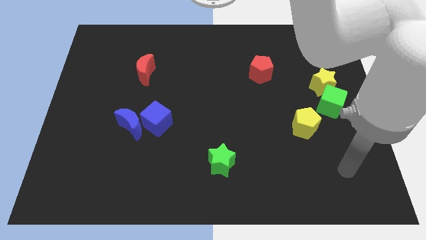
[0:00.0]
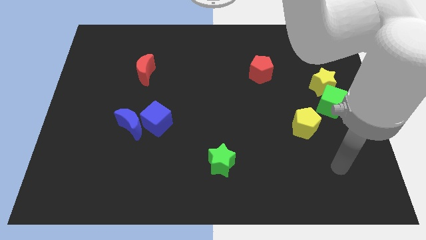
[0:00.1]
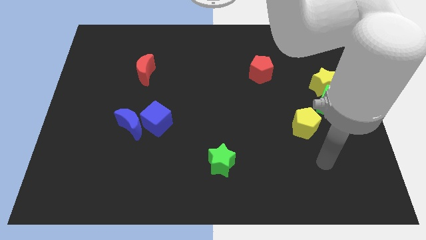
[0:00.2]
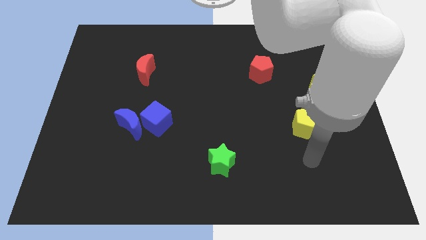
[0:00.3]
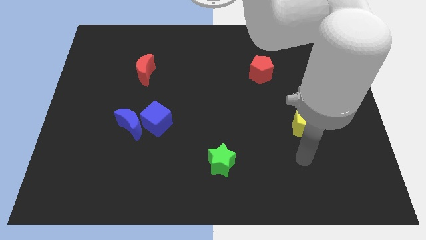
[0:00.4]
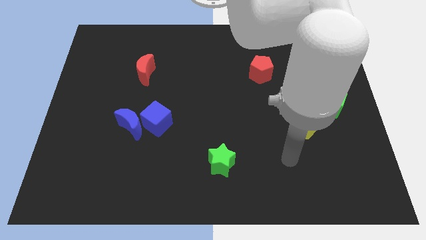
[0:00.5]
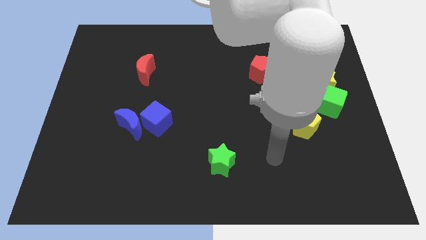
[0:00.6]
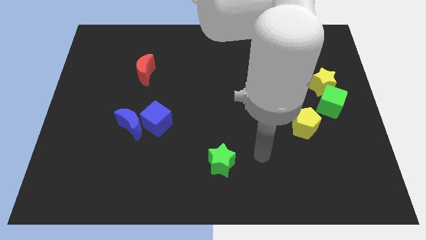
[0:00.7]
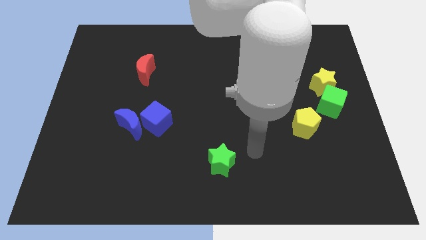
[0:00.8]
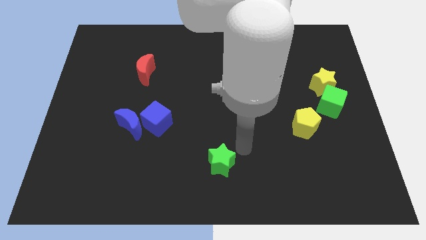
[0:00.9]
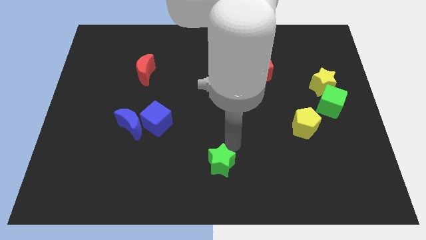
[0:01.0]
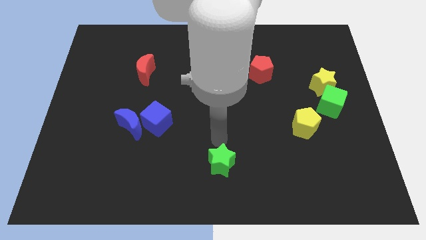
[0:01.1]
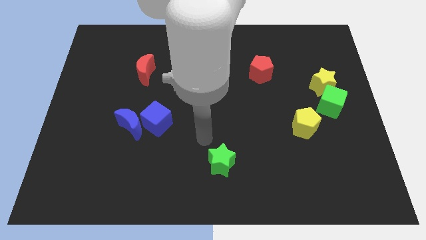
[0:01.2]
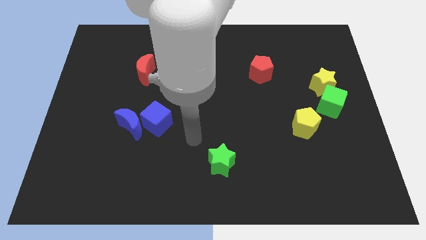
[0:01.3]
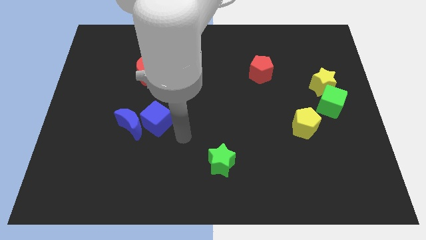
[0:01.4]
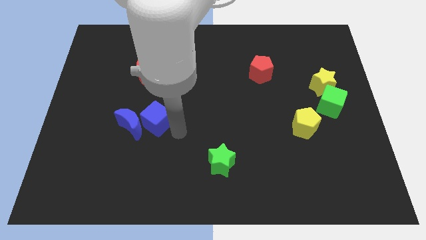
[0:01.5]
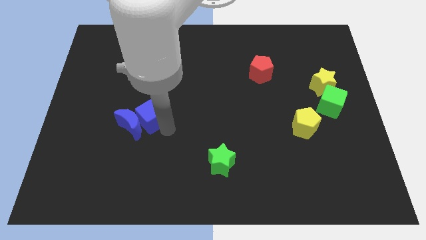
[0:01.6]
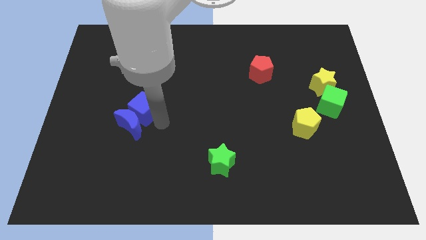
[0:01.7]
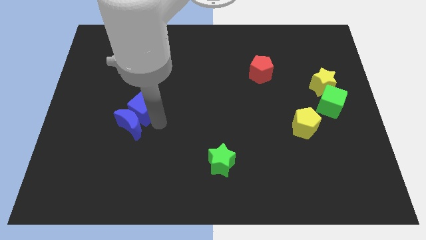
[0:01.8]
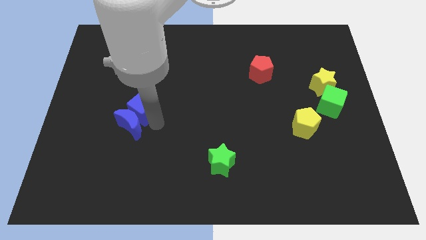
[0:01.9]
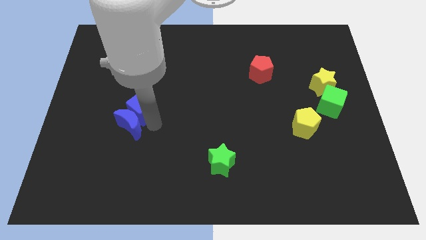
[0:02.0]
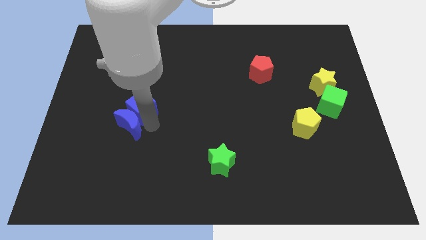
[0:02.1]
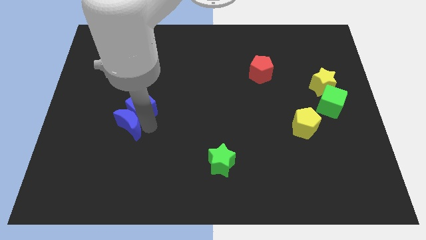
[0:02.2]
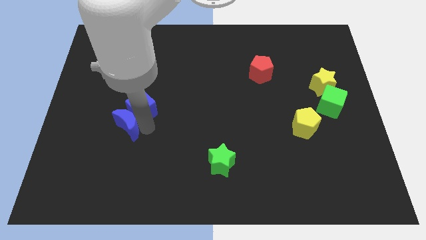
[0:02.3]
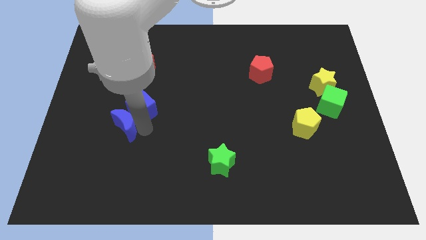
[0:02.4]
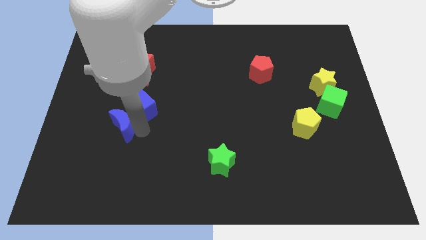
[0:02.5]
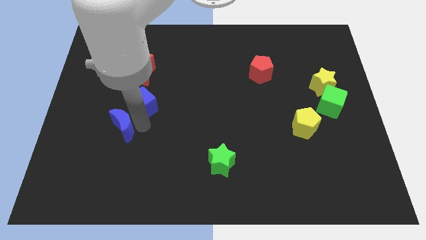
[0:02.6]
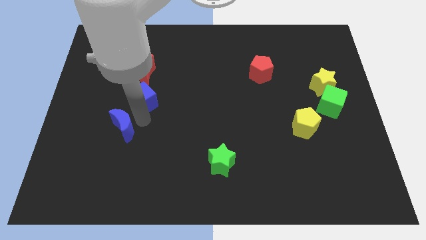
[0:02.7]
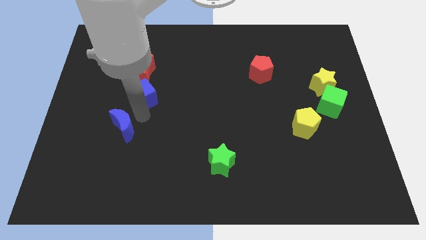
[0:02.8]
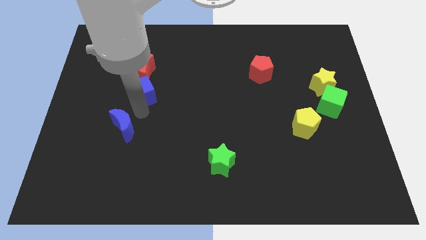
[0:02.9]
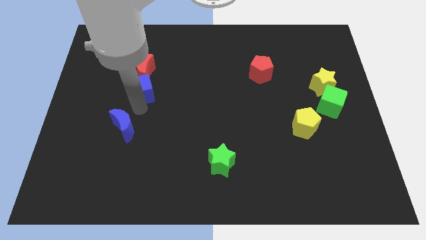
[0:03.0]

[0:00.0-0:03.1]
separate the blue moon from the blue cube

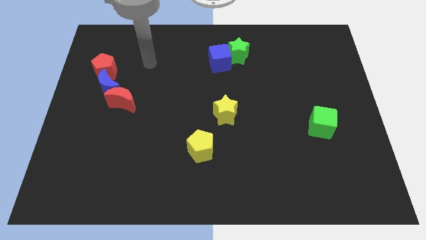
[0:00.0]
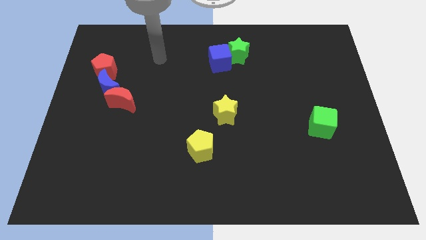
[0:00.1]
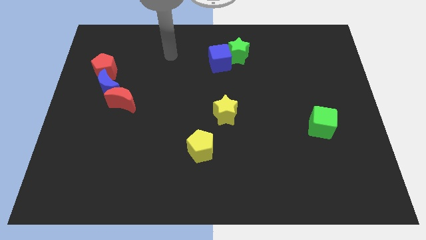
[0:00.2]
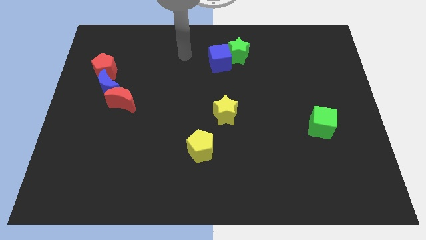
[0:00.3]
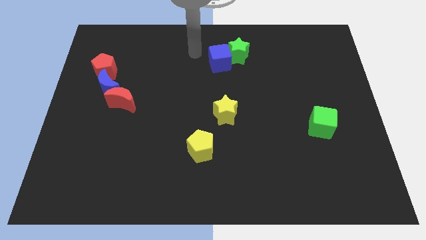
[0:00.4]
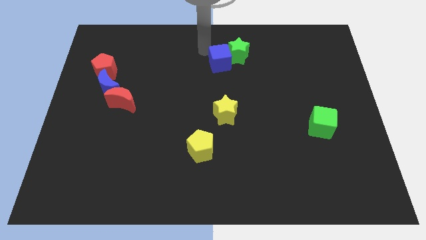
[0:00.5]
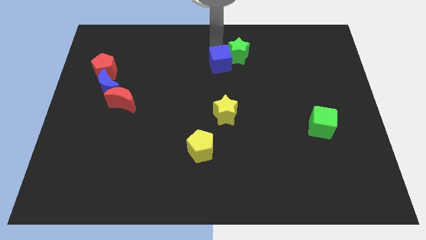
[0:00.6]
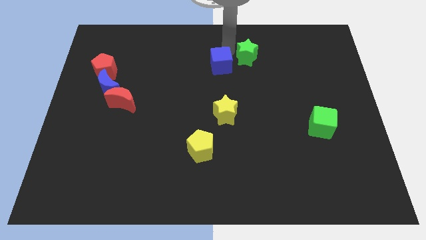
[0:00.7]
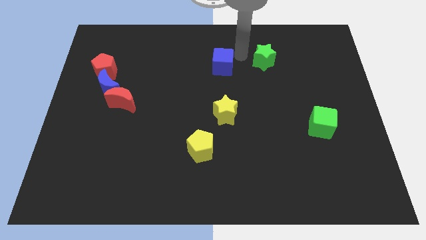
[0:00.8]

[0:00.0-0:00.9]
pull the blue cube apart from the green star

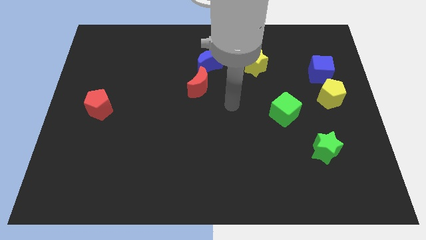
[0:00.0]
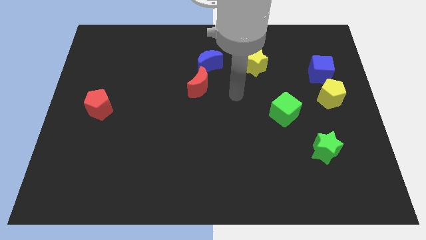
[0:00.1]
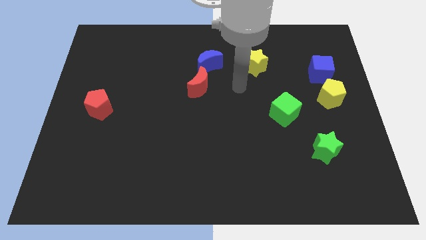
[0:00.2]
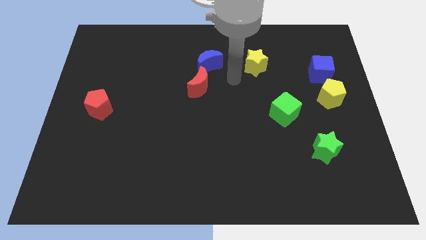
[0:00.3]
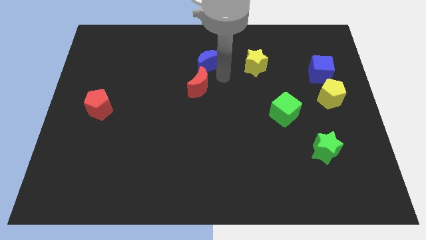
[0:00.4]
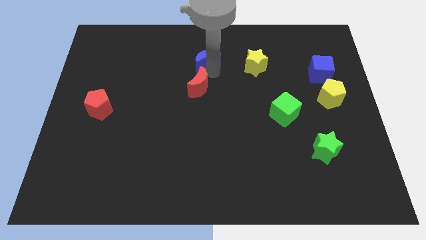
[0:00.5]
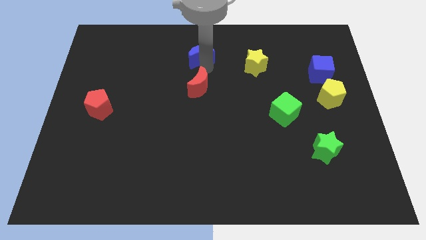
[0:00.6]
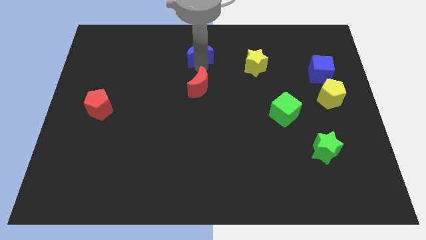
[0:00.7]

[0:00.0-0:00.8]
move the red moon away from the blue moon

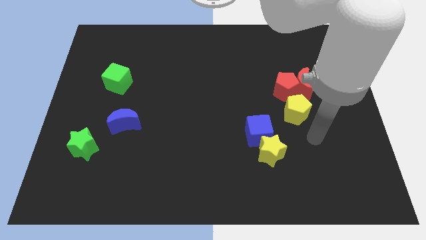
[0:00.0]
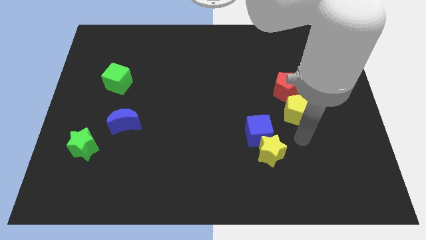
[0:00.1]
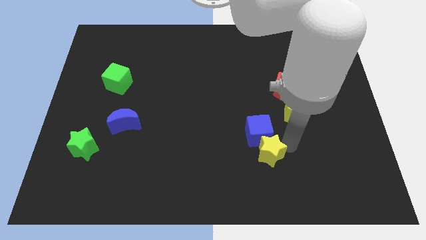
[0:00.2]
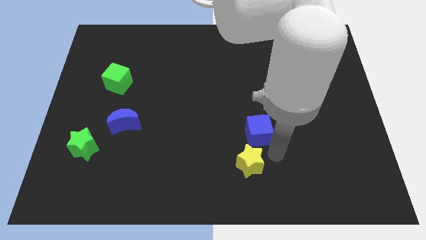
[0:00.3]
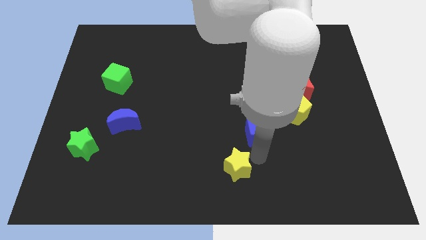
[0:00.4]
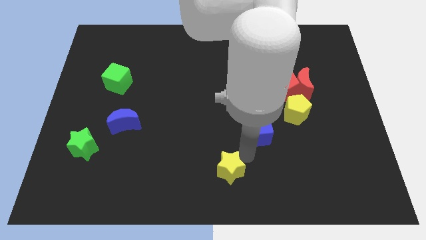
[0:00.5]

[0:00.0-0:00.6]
pull the blue cube apart from the yellow star

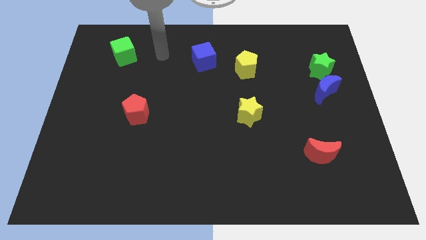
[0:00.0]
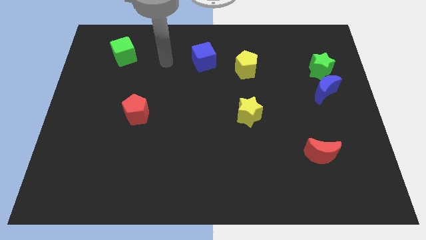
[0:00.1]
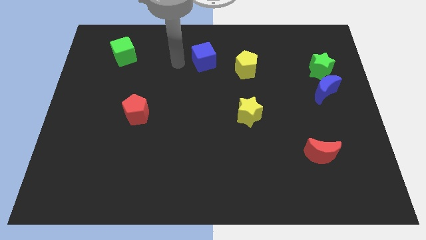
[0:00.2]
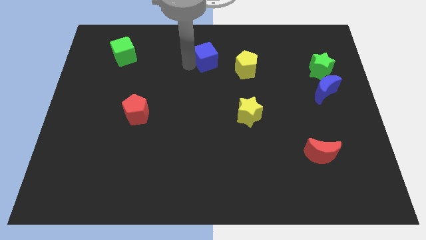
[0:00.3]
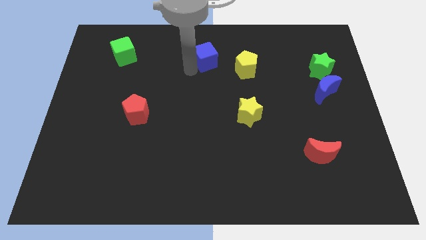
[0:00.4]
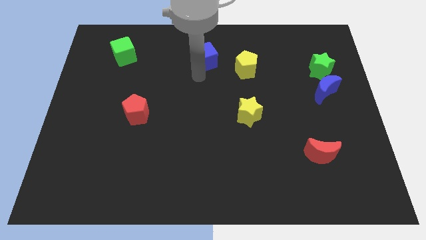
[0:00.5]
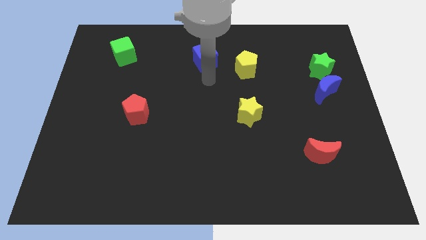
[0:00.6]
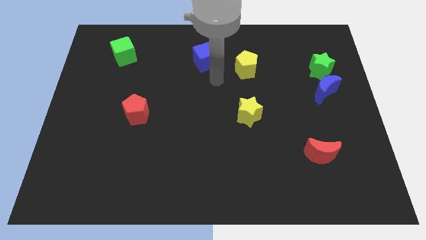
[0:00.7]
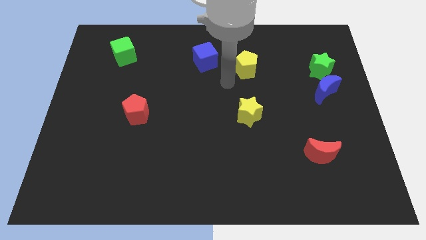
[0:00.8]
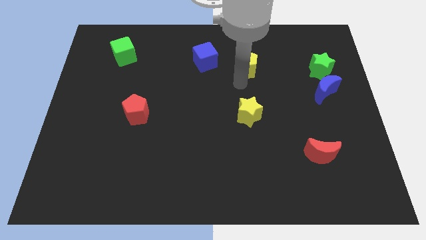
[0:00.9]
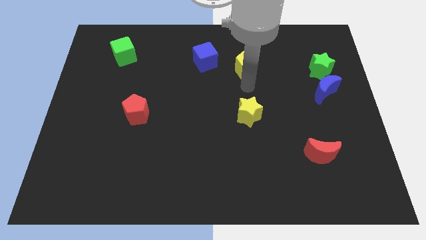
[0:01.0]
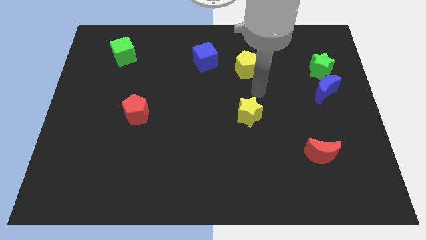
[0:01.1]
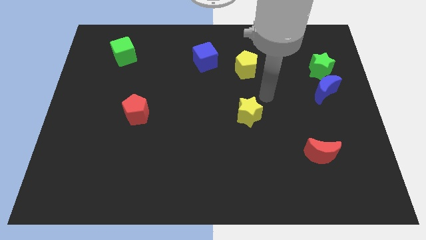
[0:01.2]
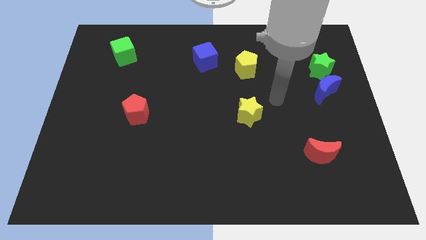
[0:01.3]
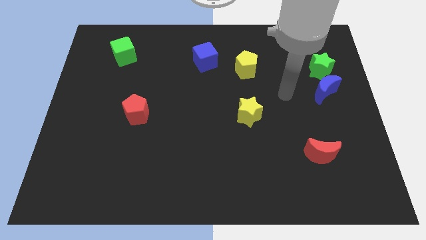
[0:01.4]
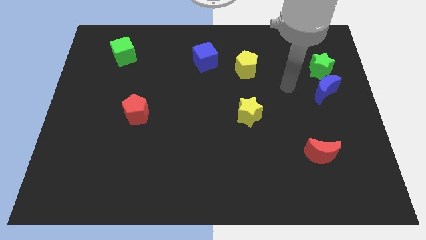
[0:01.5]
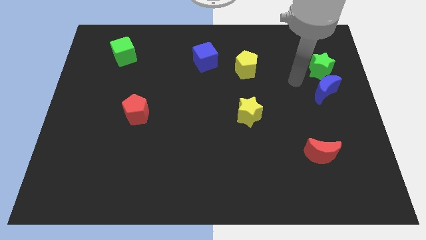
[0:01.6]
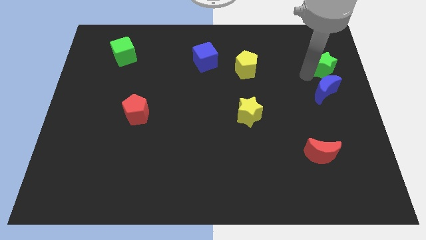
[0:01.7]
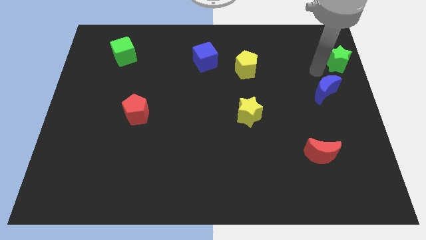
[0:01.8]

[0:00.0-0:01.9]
pull the blue moon apart from the green star

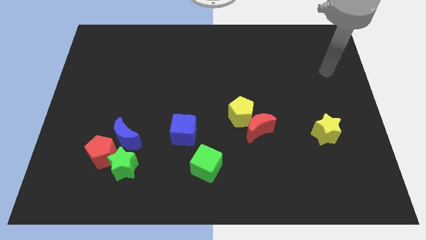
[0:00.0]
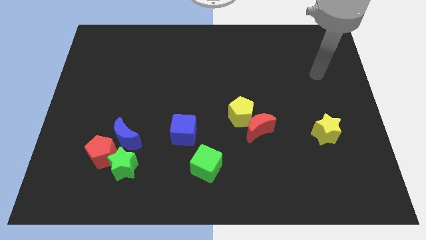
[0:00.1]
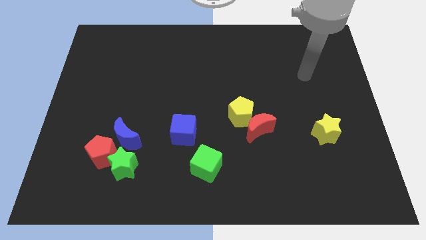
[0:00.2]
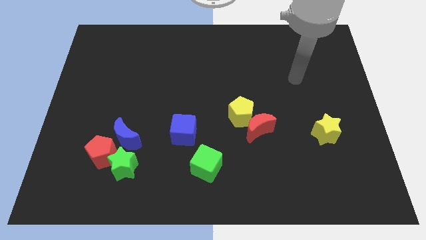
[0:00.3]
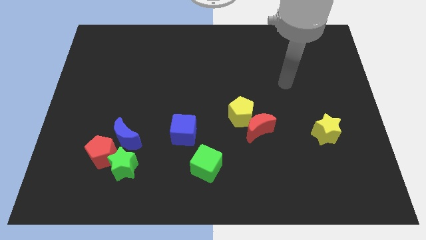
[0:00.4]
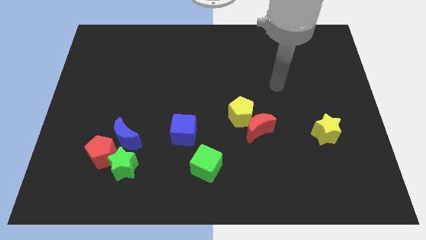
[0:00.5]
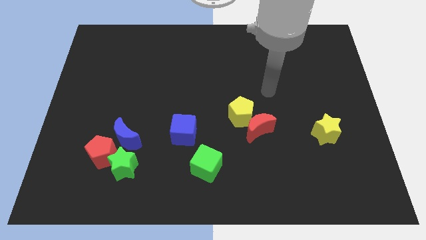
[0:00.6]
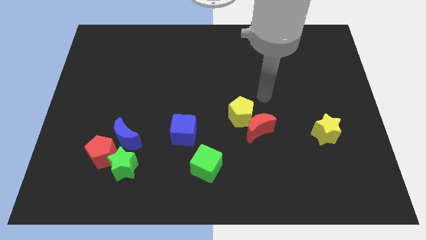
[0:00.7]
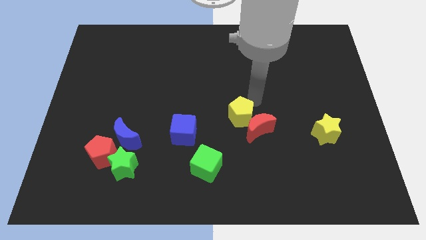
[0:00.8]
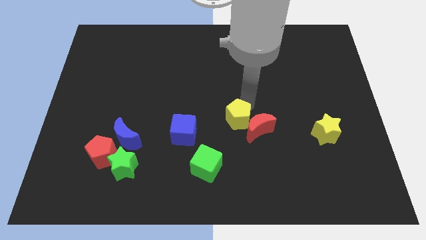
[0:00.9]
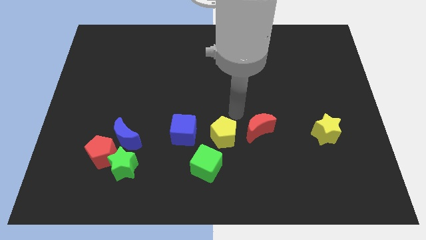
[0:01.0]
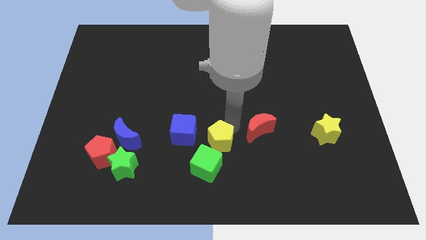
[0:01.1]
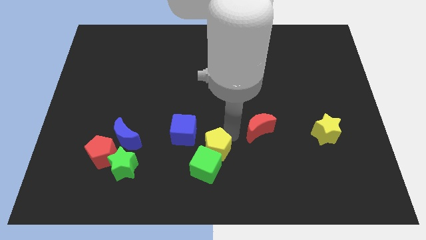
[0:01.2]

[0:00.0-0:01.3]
separate the red moon from the yellow pentagon

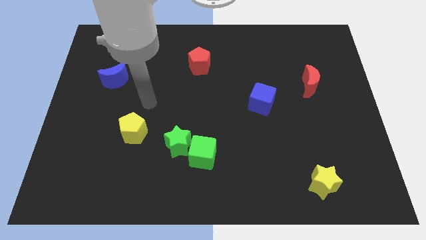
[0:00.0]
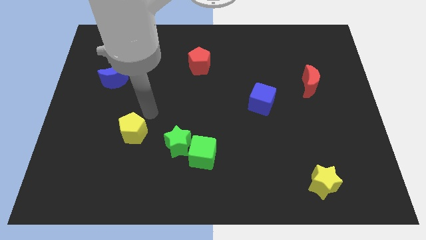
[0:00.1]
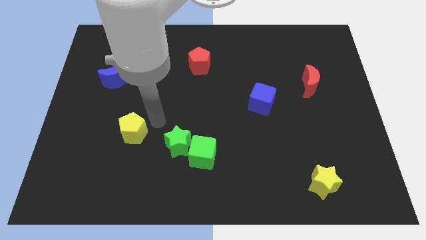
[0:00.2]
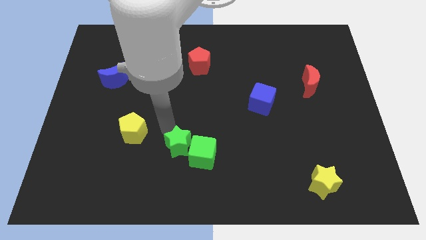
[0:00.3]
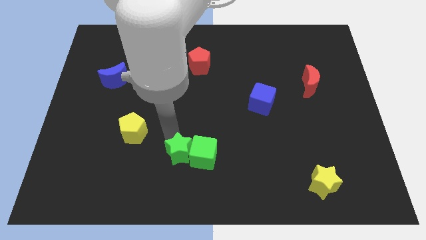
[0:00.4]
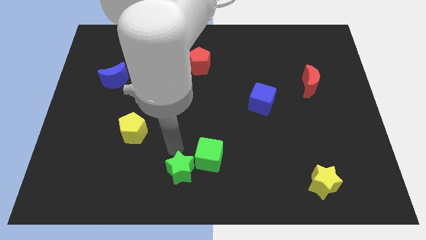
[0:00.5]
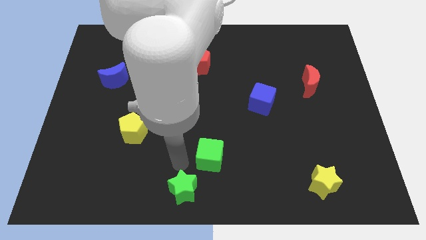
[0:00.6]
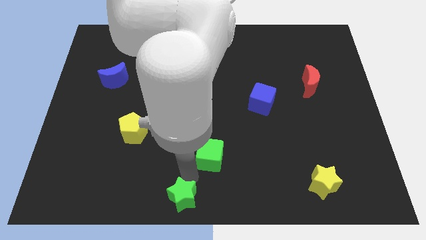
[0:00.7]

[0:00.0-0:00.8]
separate the green cube from the green star

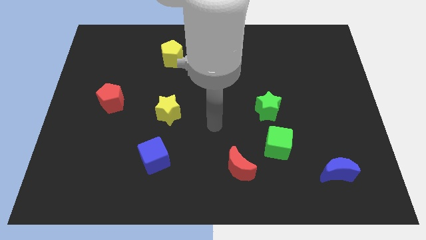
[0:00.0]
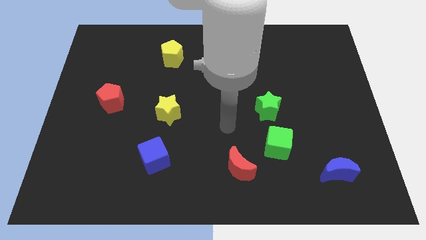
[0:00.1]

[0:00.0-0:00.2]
pull the green star apart from the green cube
